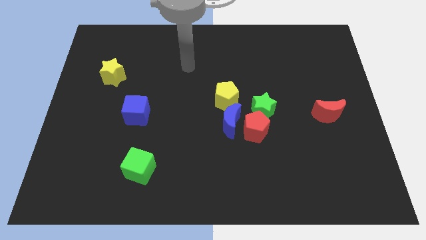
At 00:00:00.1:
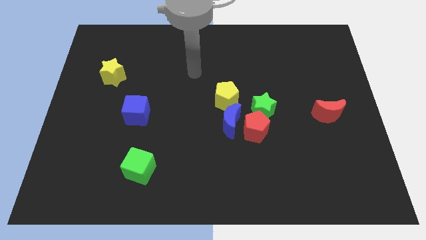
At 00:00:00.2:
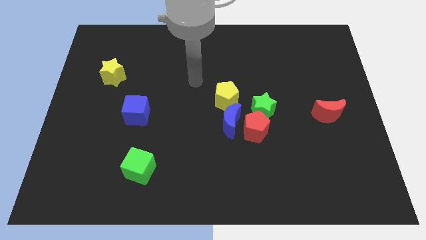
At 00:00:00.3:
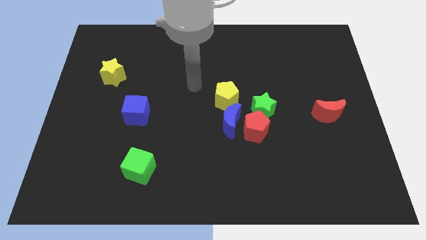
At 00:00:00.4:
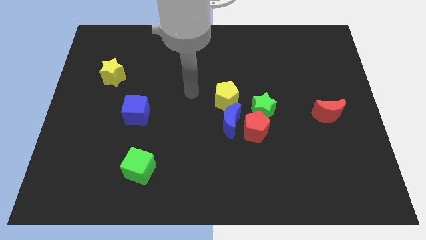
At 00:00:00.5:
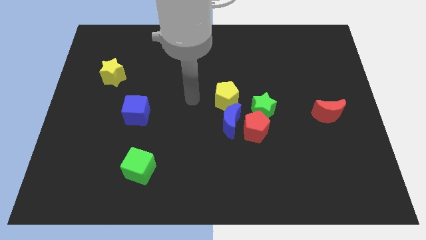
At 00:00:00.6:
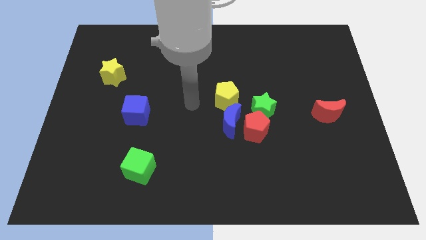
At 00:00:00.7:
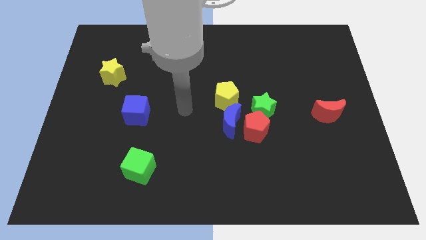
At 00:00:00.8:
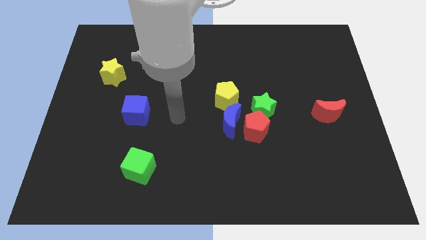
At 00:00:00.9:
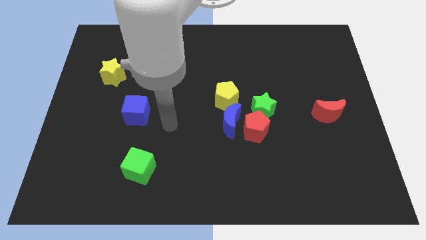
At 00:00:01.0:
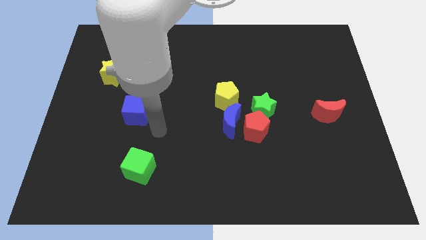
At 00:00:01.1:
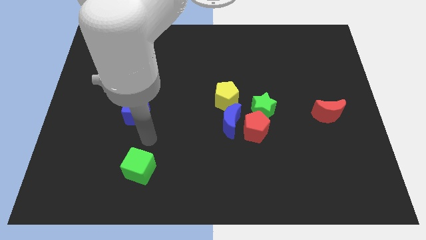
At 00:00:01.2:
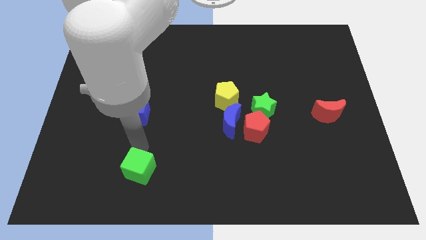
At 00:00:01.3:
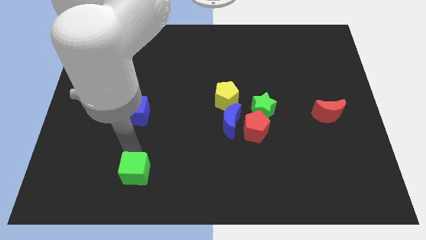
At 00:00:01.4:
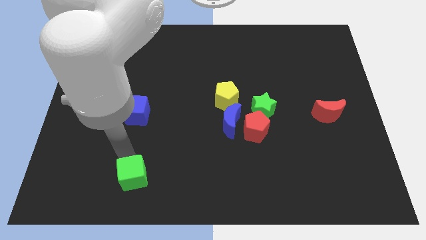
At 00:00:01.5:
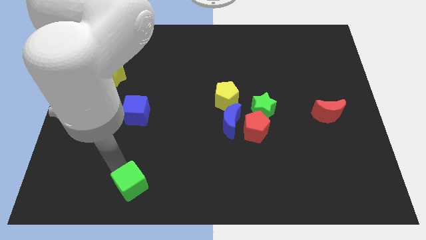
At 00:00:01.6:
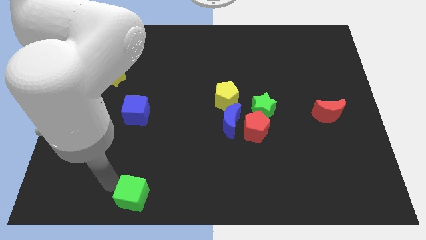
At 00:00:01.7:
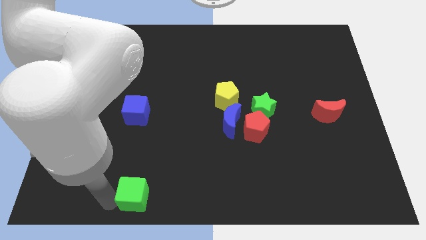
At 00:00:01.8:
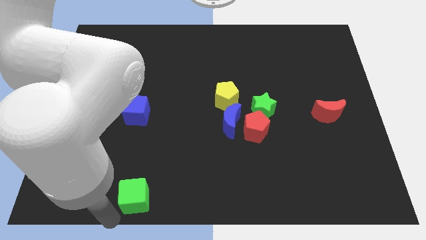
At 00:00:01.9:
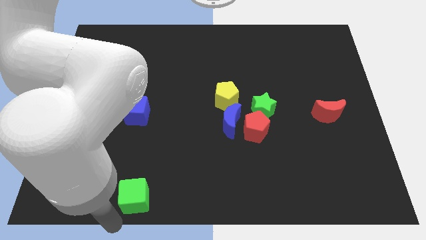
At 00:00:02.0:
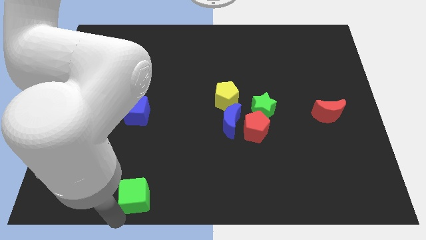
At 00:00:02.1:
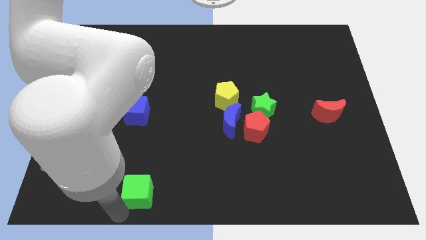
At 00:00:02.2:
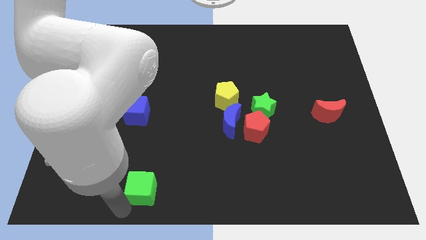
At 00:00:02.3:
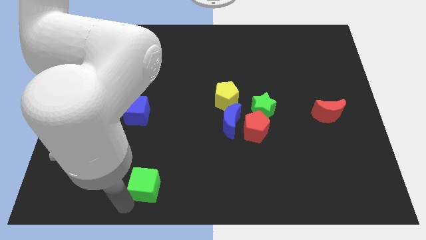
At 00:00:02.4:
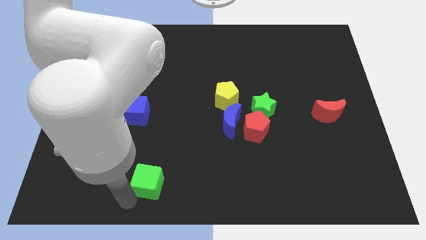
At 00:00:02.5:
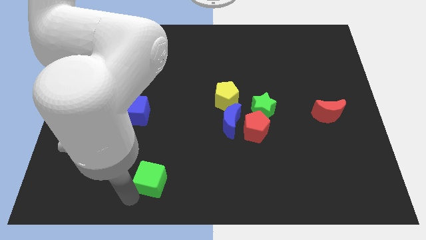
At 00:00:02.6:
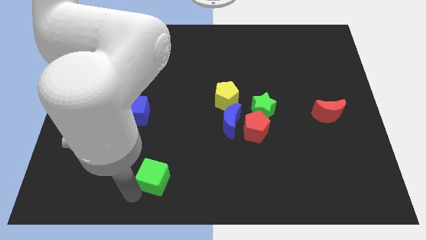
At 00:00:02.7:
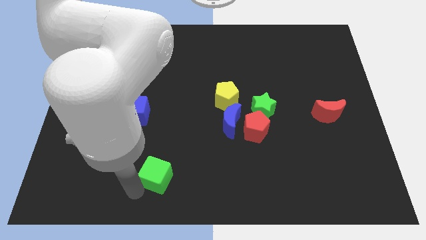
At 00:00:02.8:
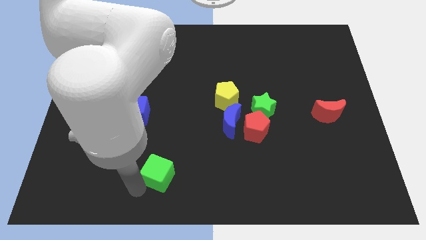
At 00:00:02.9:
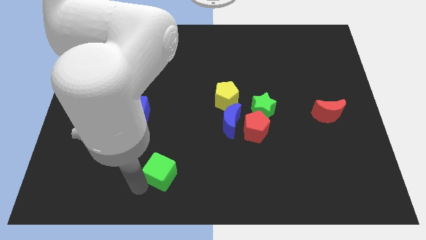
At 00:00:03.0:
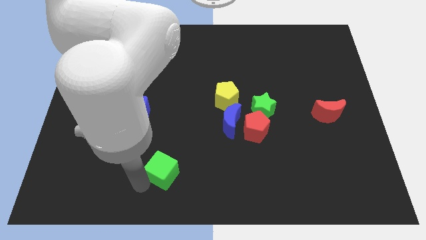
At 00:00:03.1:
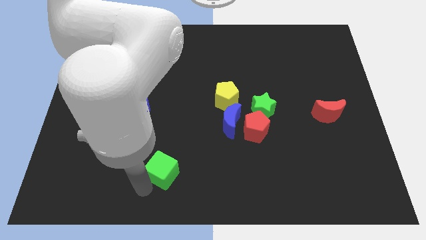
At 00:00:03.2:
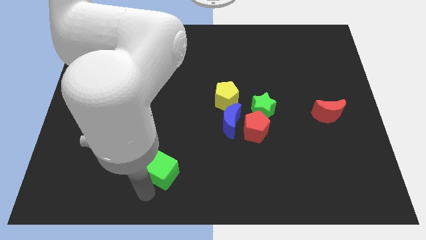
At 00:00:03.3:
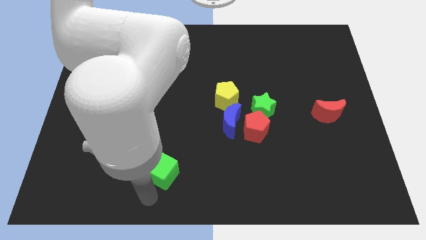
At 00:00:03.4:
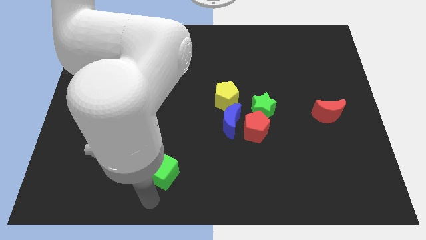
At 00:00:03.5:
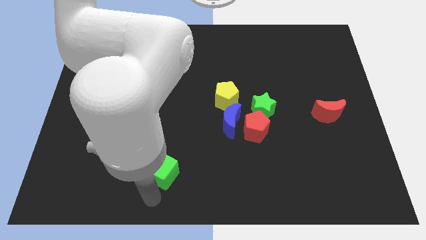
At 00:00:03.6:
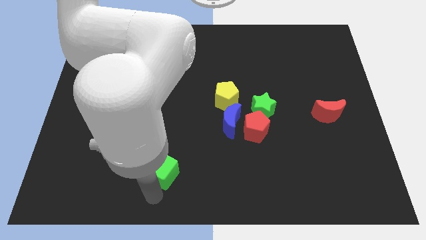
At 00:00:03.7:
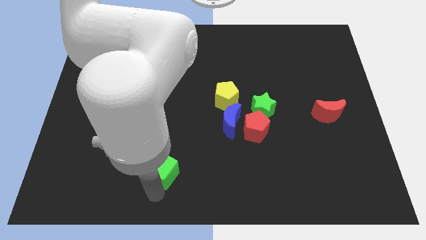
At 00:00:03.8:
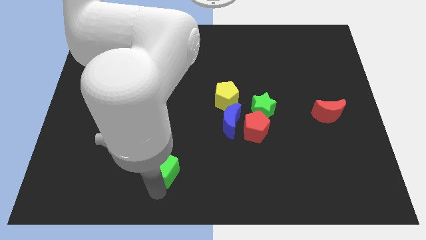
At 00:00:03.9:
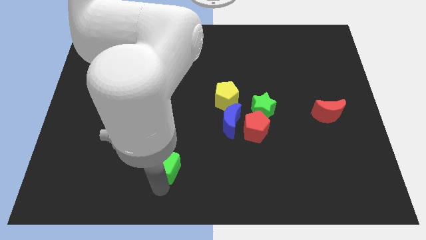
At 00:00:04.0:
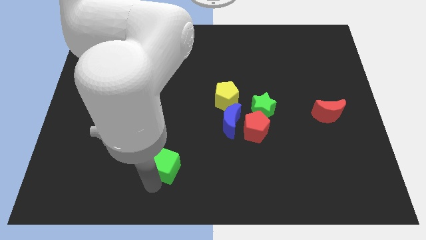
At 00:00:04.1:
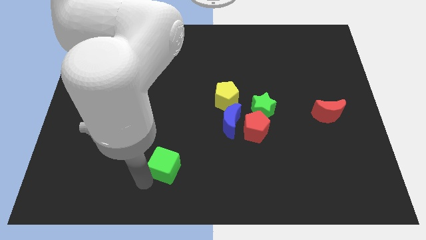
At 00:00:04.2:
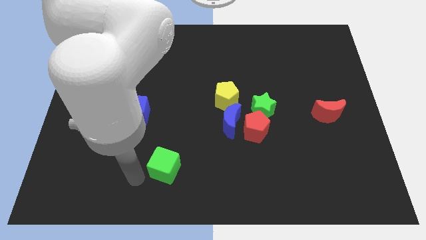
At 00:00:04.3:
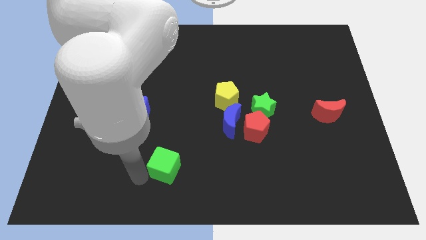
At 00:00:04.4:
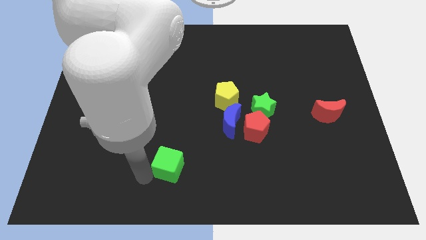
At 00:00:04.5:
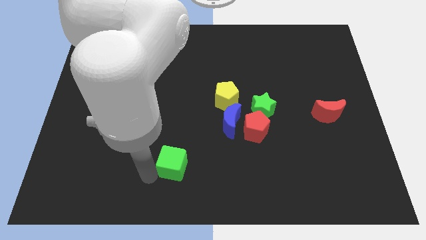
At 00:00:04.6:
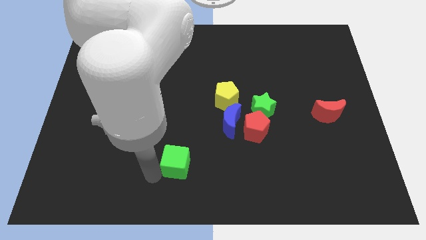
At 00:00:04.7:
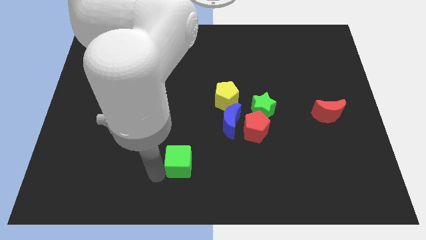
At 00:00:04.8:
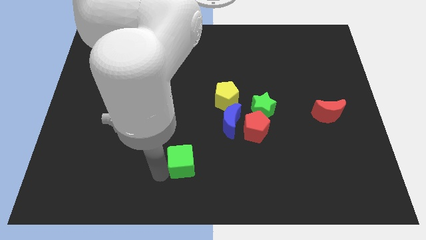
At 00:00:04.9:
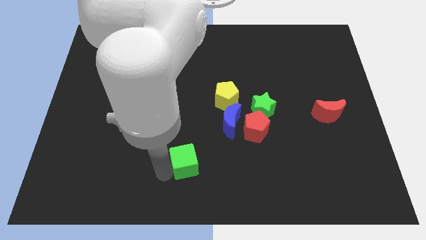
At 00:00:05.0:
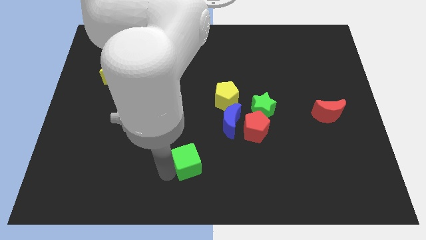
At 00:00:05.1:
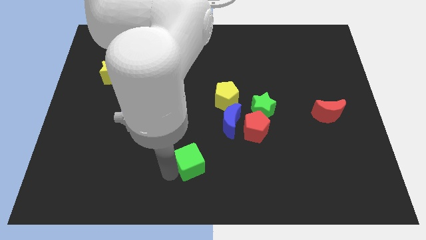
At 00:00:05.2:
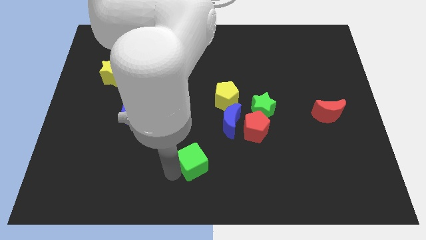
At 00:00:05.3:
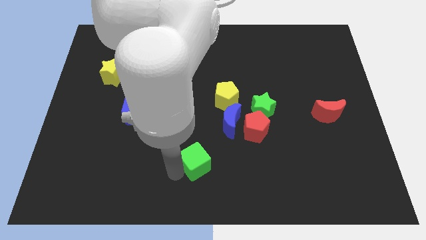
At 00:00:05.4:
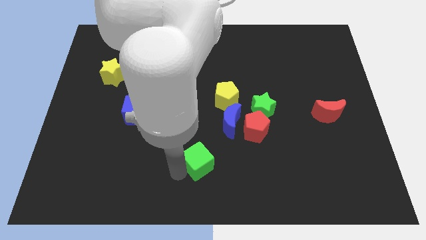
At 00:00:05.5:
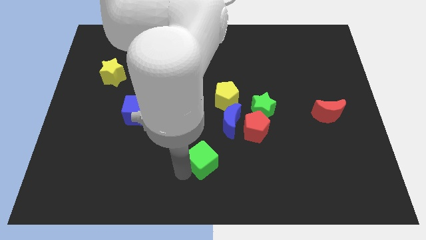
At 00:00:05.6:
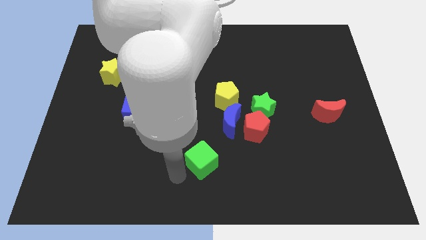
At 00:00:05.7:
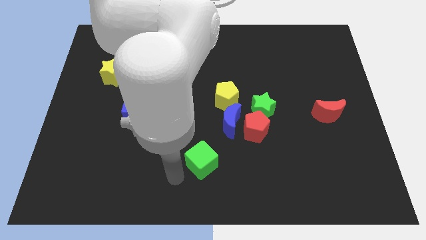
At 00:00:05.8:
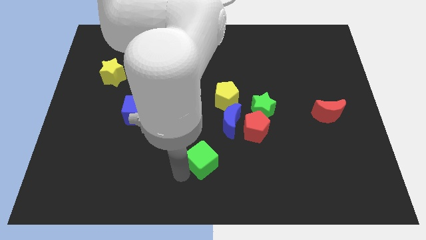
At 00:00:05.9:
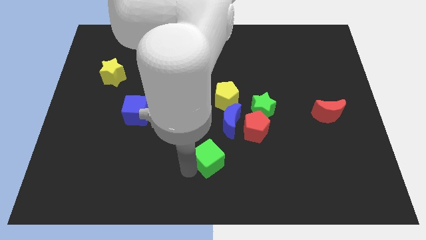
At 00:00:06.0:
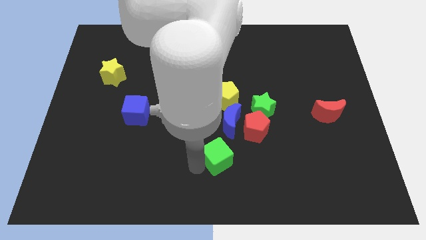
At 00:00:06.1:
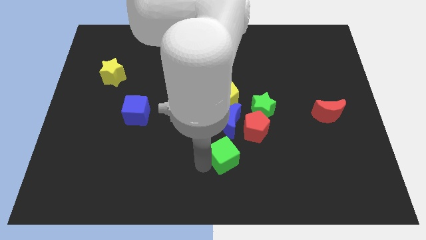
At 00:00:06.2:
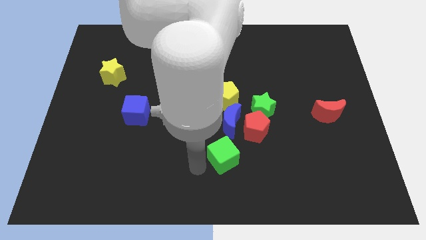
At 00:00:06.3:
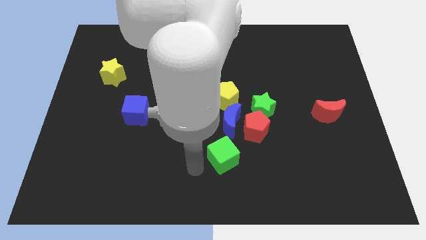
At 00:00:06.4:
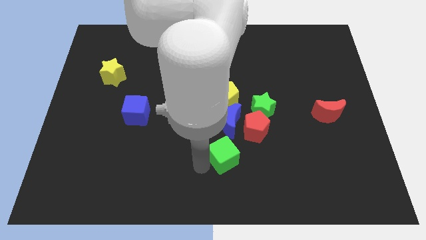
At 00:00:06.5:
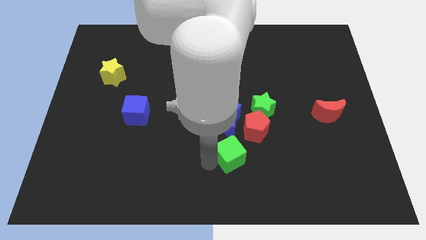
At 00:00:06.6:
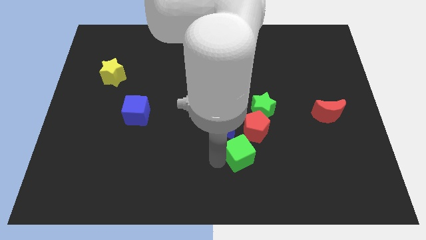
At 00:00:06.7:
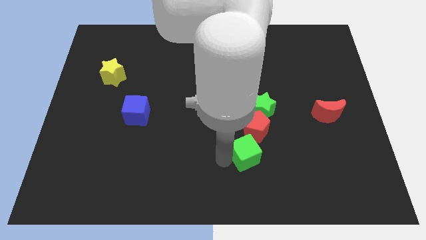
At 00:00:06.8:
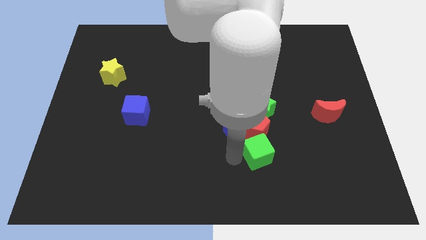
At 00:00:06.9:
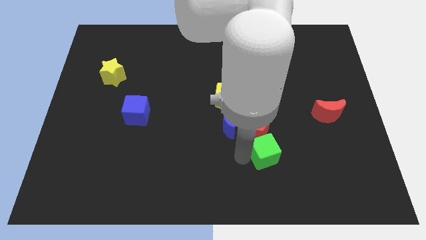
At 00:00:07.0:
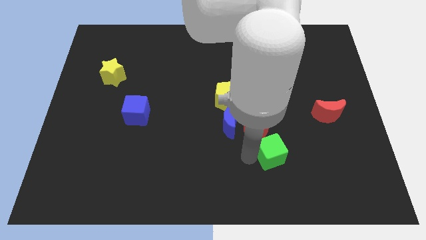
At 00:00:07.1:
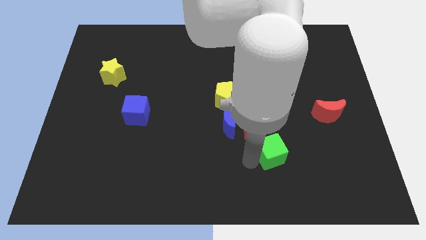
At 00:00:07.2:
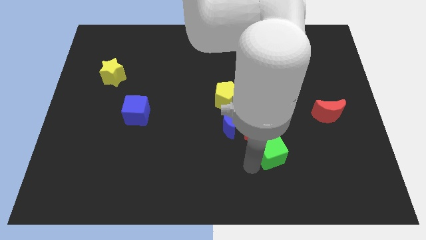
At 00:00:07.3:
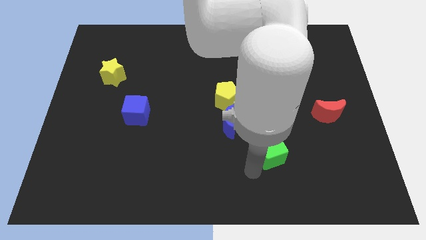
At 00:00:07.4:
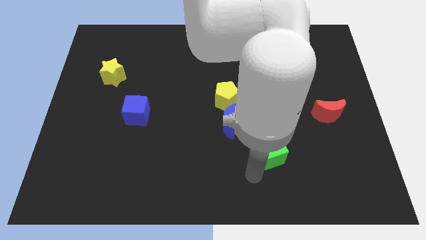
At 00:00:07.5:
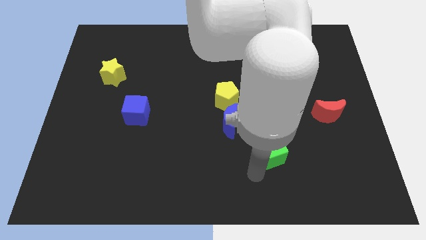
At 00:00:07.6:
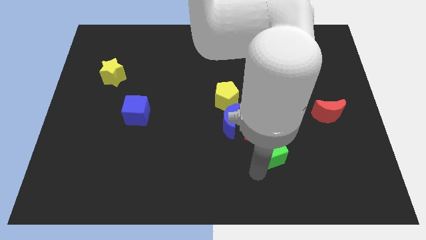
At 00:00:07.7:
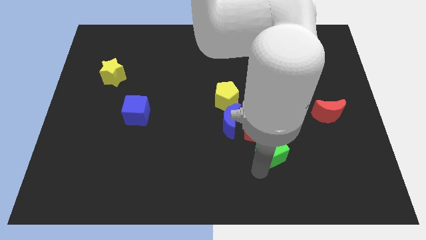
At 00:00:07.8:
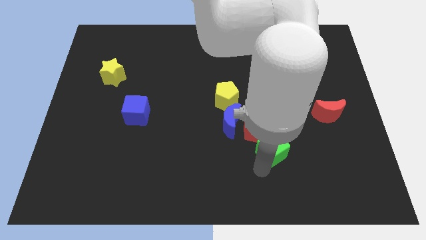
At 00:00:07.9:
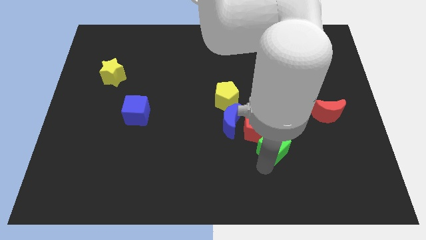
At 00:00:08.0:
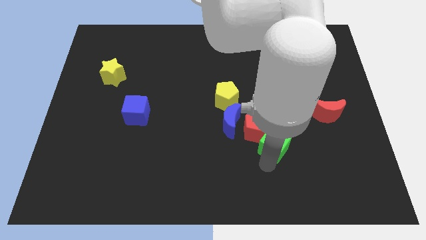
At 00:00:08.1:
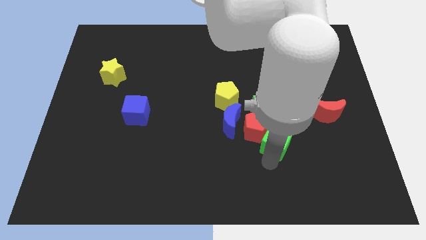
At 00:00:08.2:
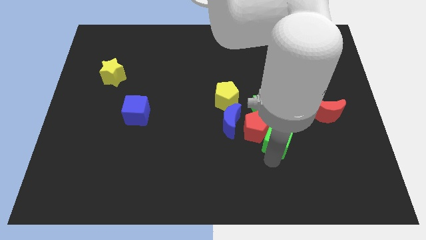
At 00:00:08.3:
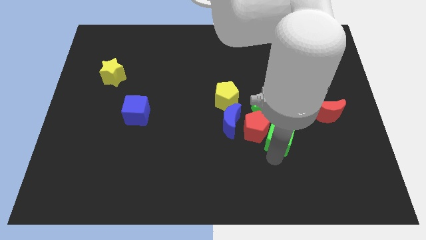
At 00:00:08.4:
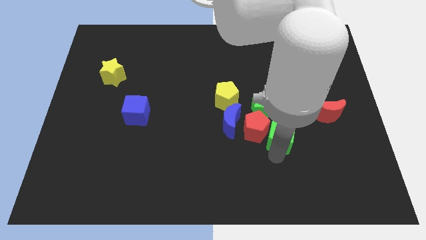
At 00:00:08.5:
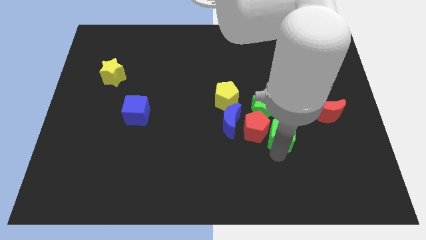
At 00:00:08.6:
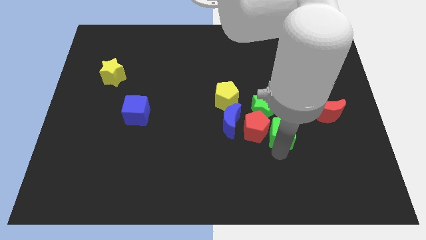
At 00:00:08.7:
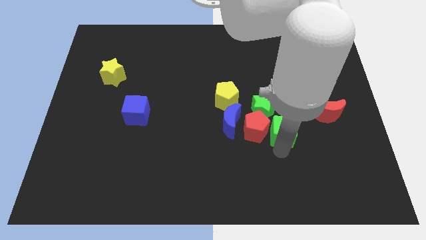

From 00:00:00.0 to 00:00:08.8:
move the green cube to the top right of the red pentagon
